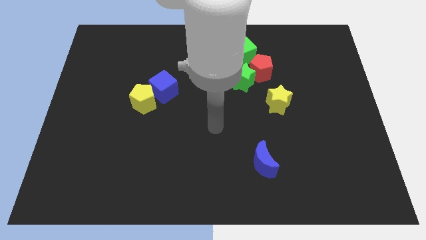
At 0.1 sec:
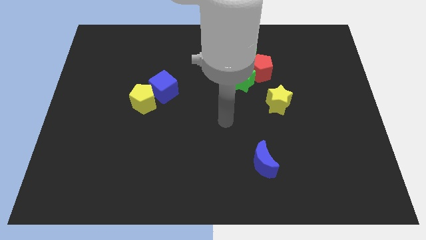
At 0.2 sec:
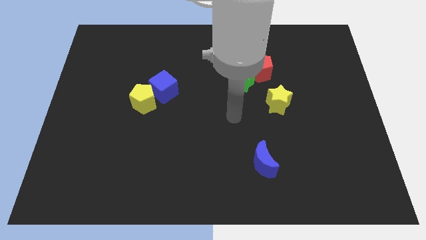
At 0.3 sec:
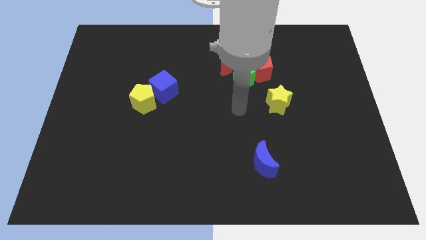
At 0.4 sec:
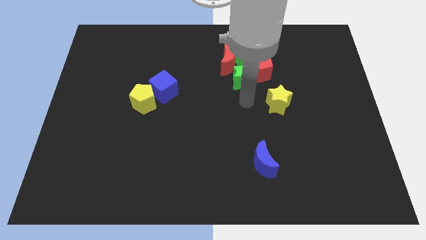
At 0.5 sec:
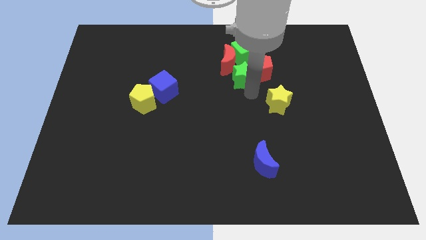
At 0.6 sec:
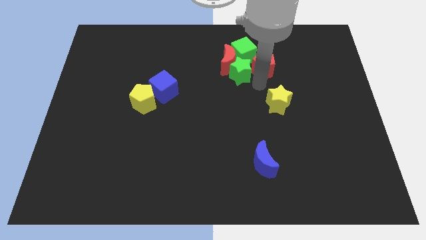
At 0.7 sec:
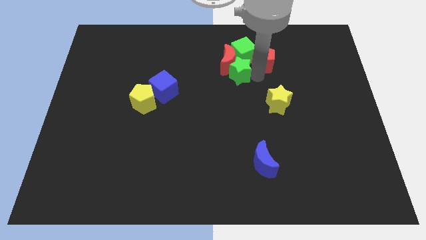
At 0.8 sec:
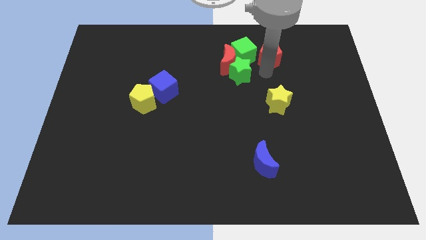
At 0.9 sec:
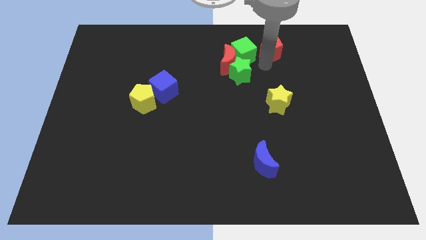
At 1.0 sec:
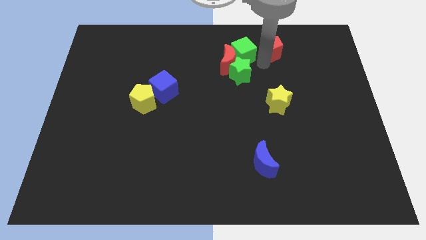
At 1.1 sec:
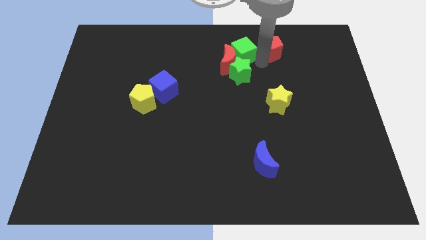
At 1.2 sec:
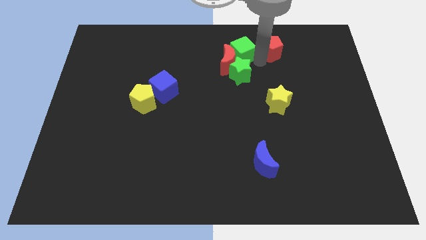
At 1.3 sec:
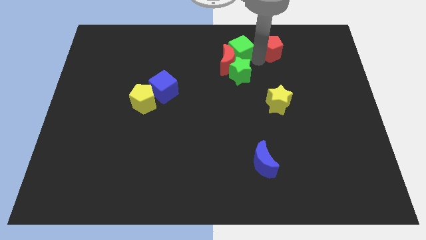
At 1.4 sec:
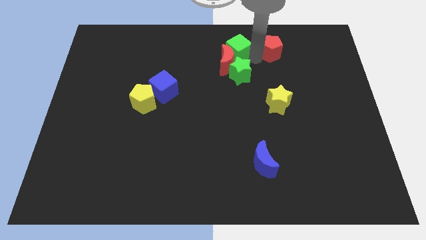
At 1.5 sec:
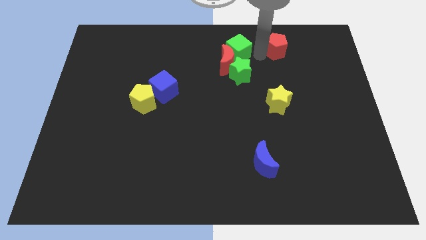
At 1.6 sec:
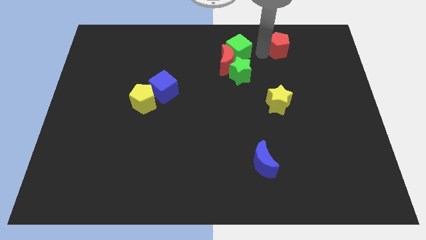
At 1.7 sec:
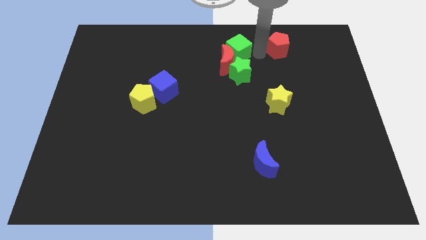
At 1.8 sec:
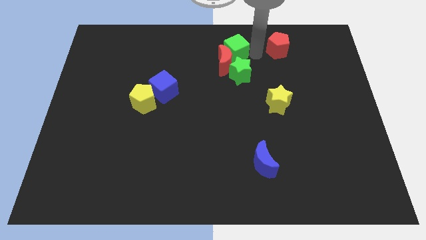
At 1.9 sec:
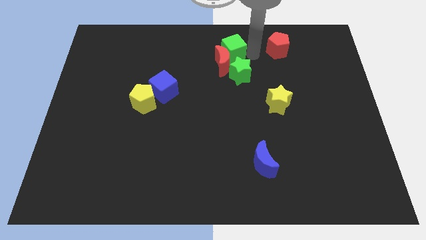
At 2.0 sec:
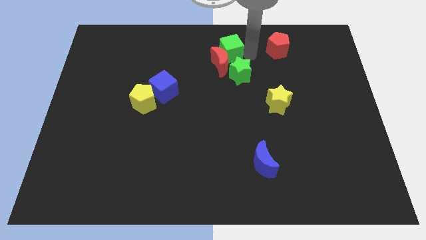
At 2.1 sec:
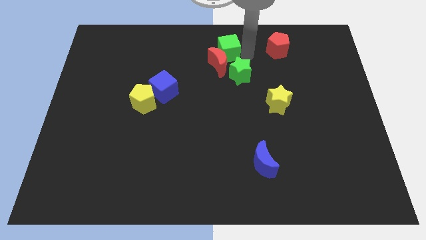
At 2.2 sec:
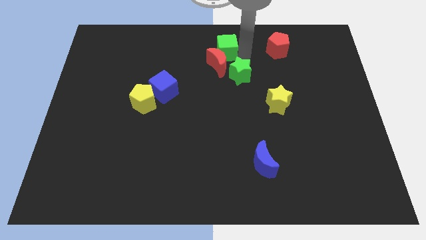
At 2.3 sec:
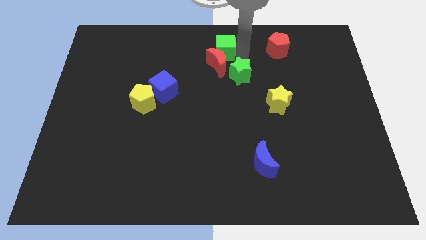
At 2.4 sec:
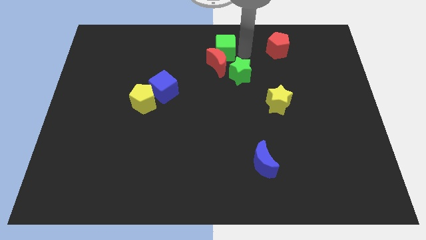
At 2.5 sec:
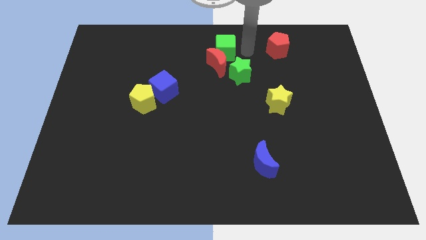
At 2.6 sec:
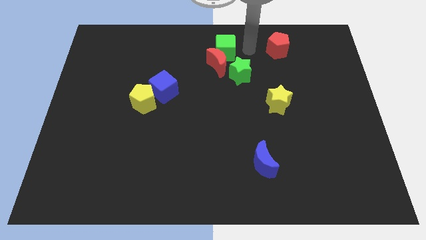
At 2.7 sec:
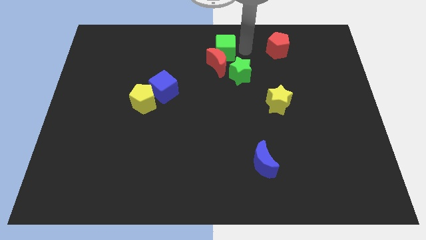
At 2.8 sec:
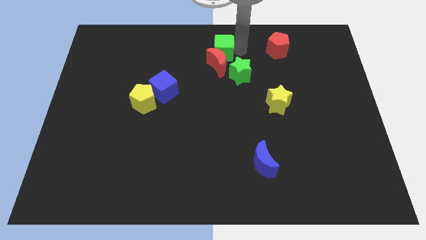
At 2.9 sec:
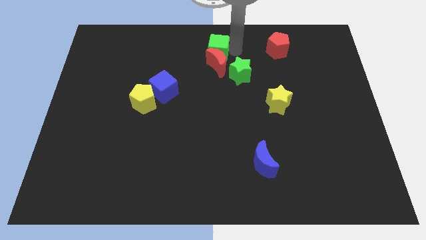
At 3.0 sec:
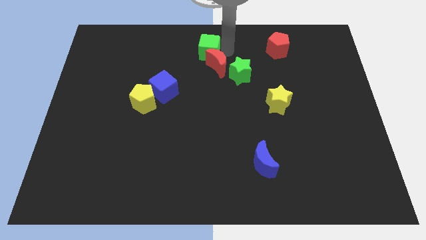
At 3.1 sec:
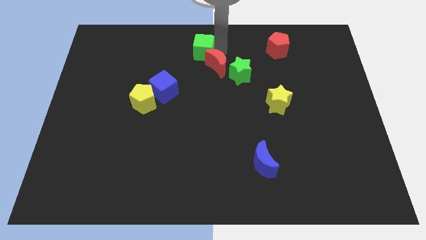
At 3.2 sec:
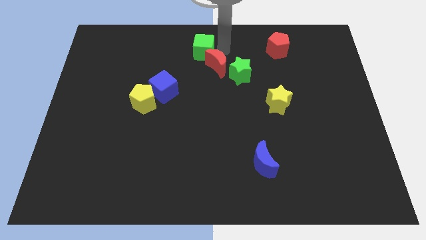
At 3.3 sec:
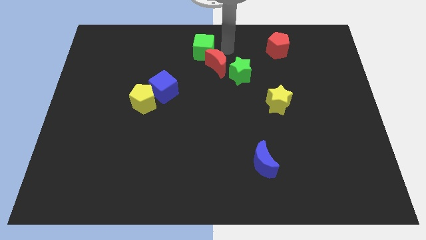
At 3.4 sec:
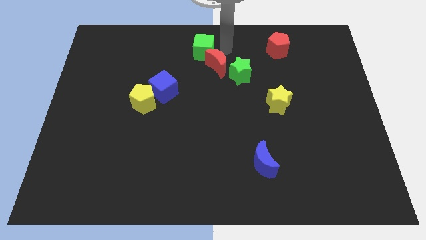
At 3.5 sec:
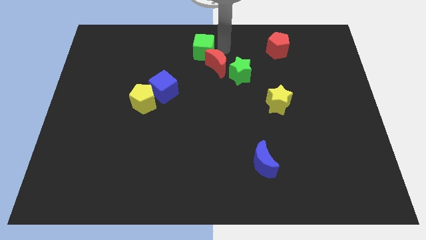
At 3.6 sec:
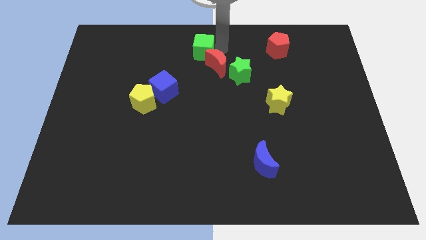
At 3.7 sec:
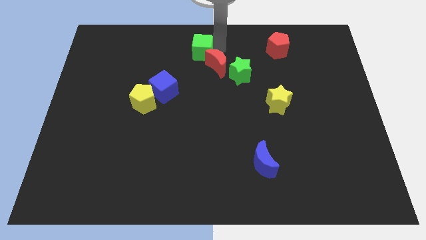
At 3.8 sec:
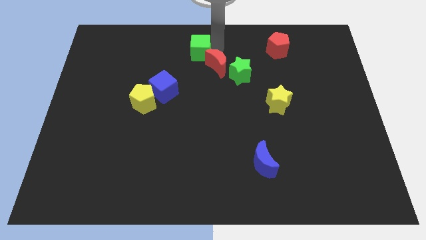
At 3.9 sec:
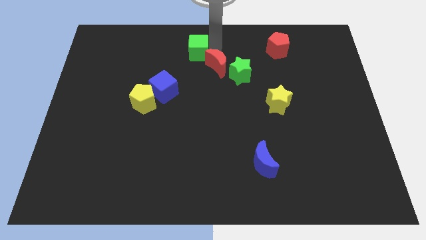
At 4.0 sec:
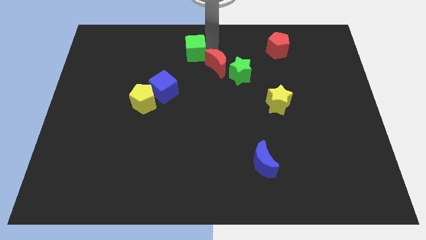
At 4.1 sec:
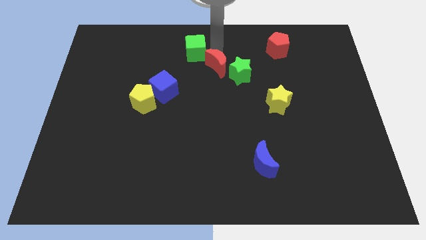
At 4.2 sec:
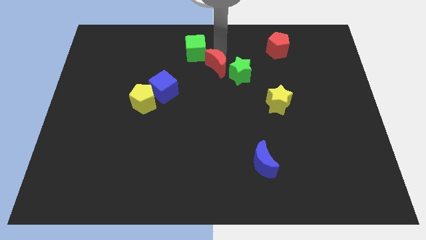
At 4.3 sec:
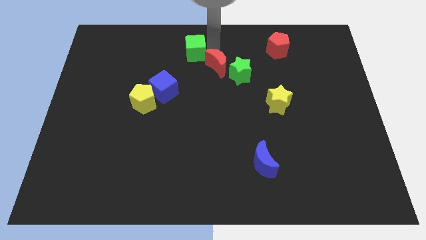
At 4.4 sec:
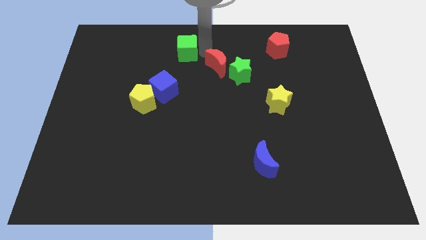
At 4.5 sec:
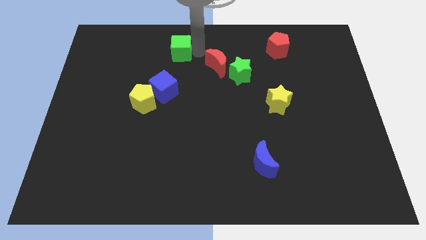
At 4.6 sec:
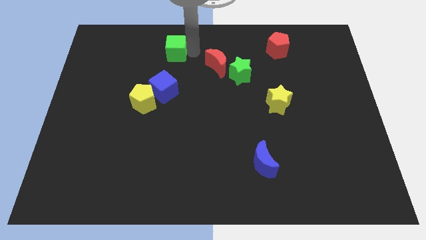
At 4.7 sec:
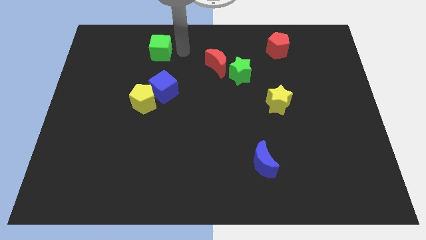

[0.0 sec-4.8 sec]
slide the green cube to the left

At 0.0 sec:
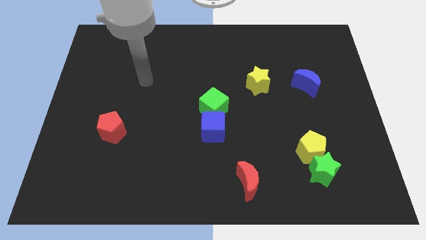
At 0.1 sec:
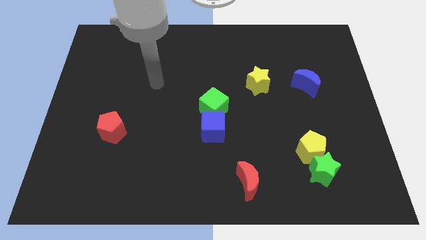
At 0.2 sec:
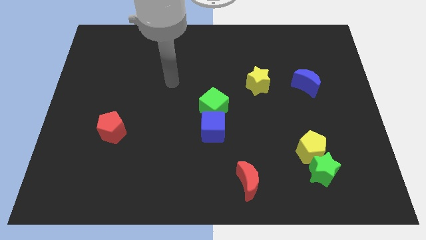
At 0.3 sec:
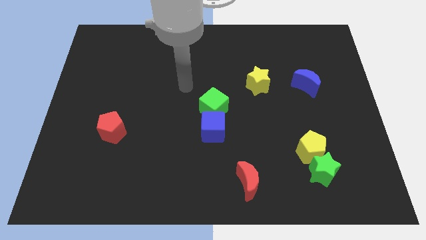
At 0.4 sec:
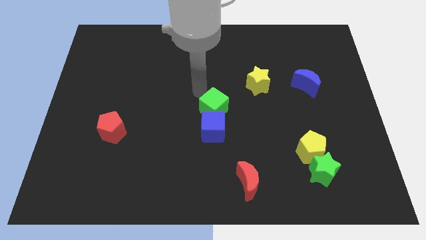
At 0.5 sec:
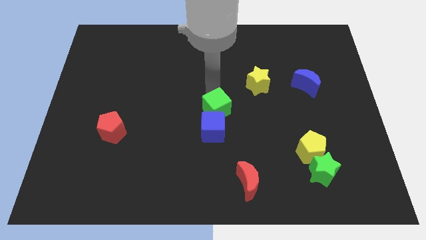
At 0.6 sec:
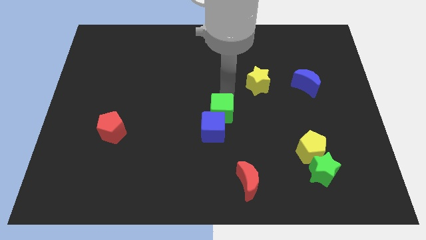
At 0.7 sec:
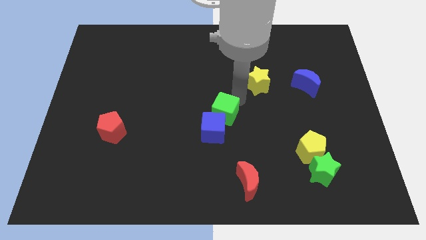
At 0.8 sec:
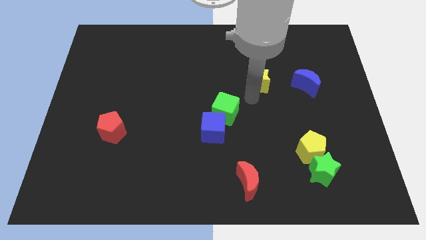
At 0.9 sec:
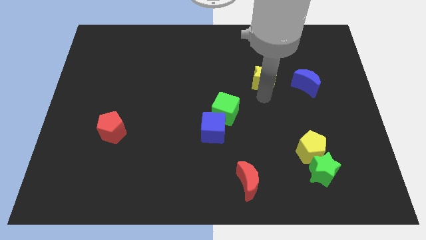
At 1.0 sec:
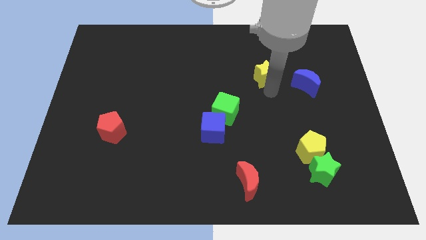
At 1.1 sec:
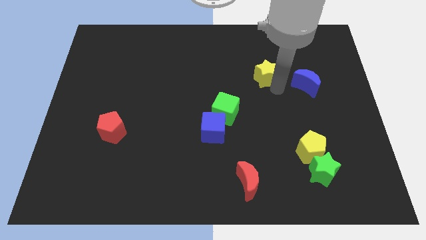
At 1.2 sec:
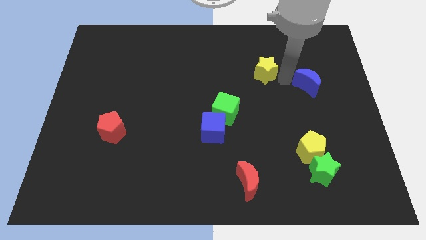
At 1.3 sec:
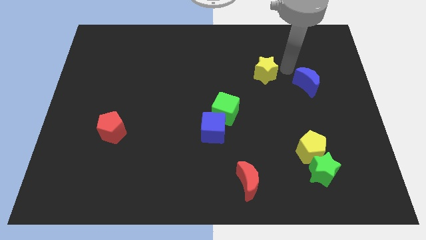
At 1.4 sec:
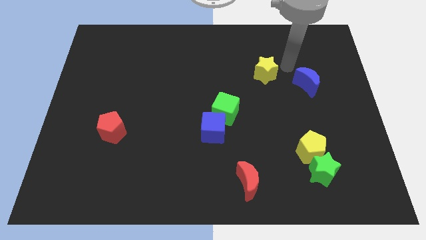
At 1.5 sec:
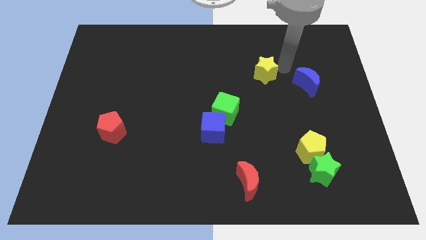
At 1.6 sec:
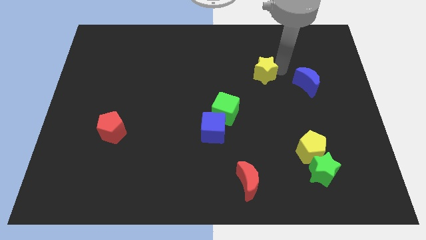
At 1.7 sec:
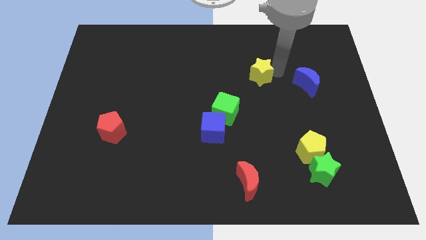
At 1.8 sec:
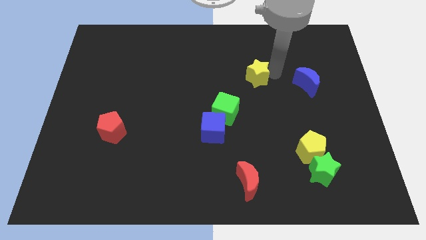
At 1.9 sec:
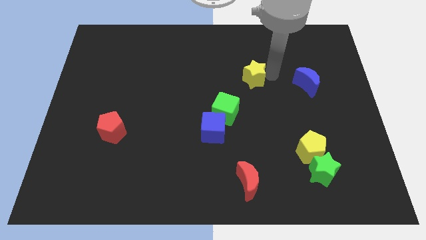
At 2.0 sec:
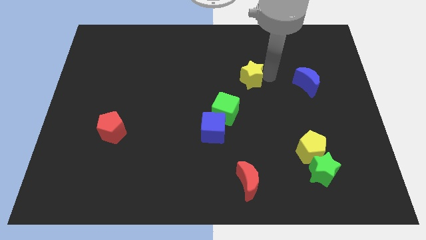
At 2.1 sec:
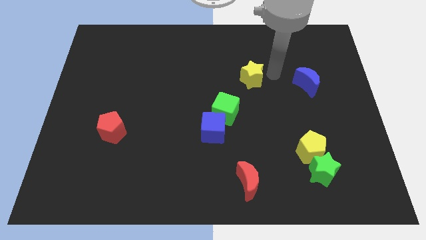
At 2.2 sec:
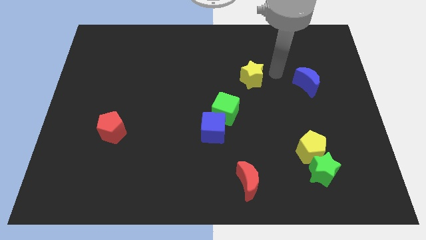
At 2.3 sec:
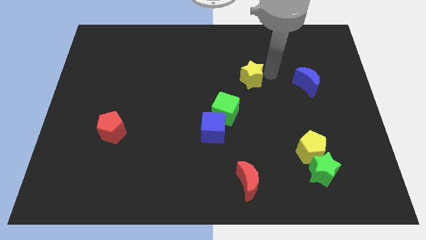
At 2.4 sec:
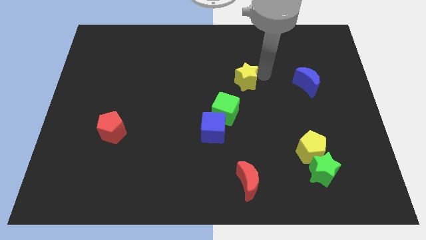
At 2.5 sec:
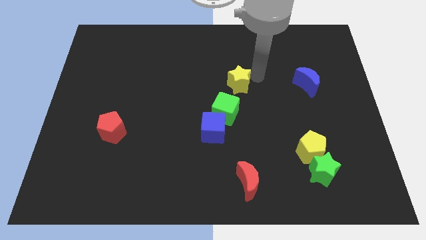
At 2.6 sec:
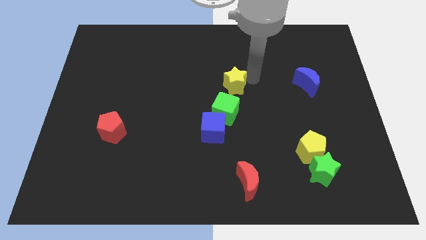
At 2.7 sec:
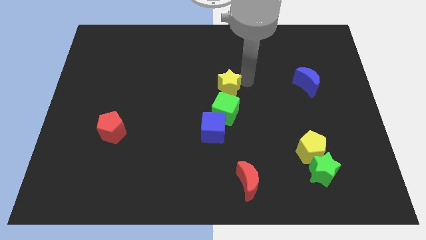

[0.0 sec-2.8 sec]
slide the yellow star left somewhat

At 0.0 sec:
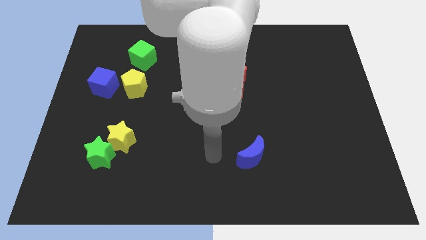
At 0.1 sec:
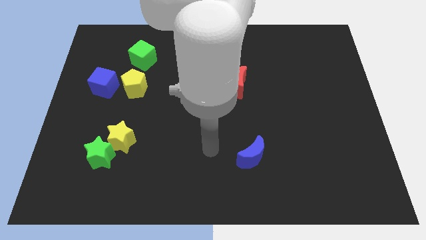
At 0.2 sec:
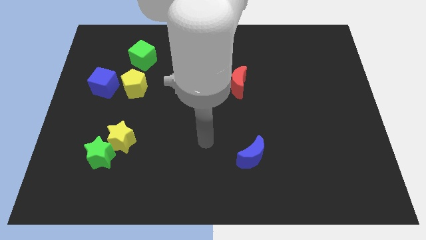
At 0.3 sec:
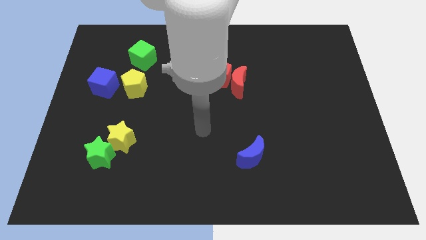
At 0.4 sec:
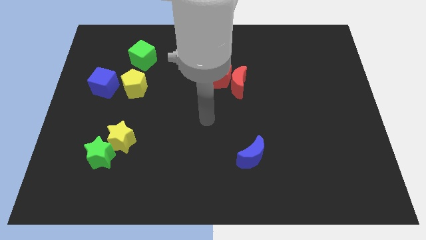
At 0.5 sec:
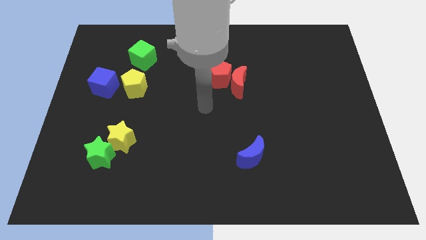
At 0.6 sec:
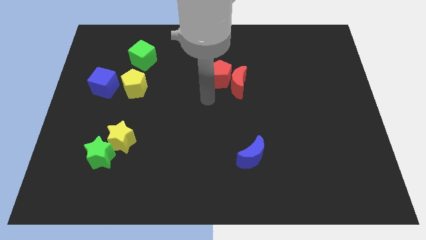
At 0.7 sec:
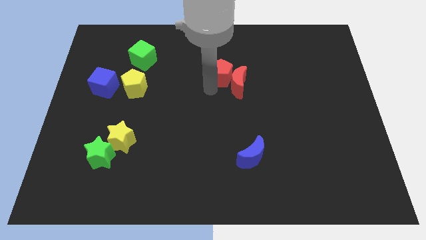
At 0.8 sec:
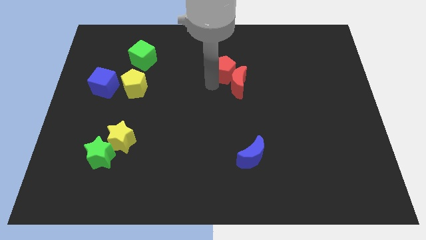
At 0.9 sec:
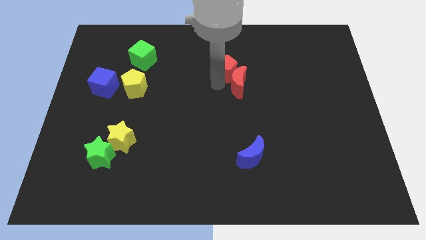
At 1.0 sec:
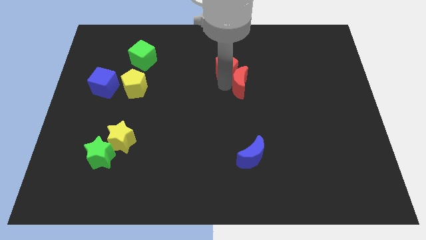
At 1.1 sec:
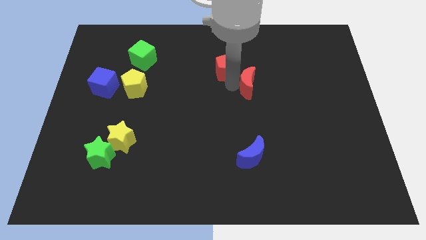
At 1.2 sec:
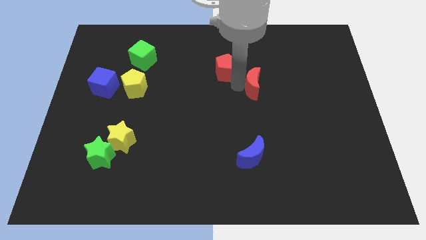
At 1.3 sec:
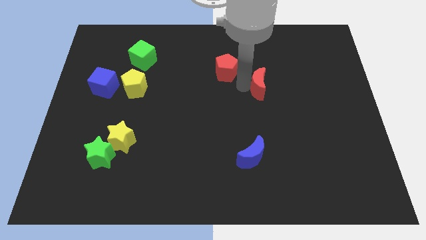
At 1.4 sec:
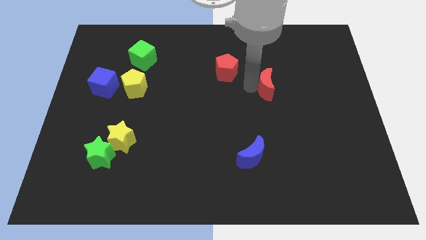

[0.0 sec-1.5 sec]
slide the red moon to the right somewhat
